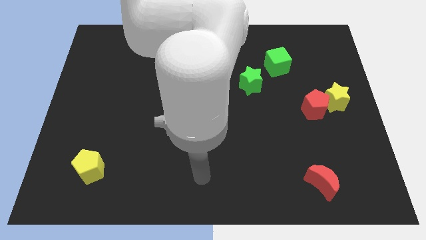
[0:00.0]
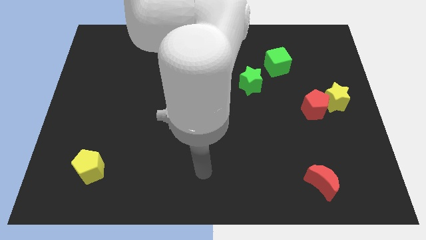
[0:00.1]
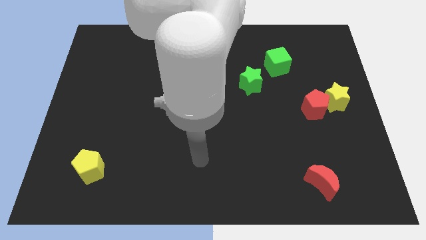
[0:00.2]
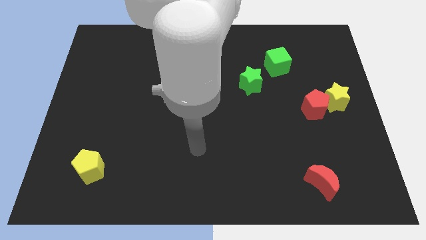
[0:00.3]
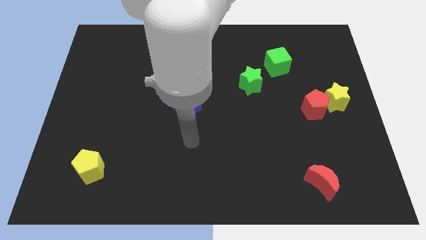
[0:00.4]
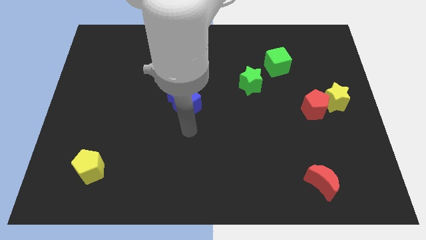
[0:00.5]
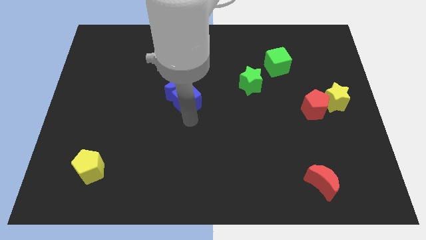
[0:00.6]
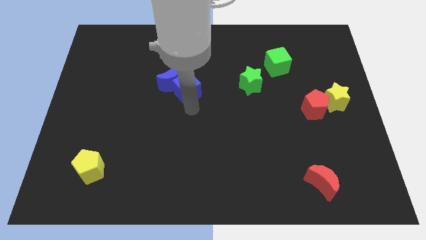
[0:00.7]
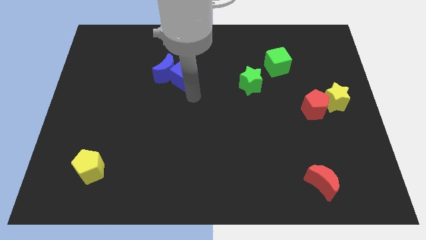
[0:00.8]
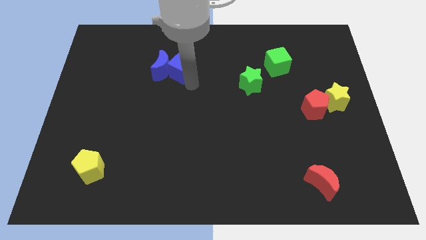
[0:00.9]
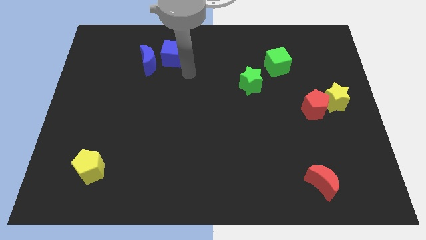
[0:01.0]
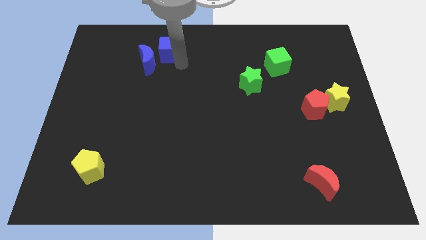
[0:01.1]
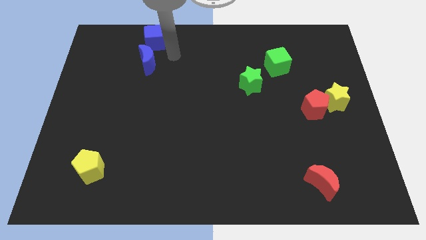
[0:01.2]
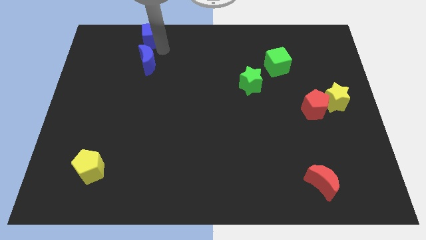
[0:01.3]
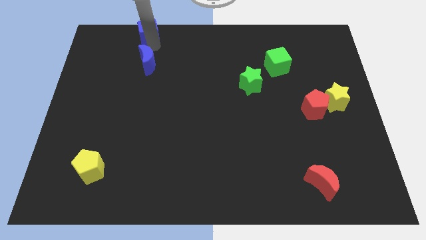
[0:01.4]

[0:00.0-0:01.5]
pull the blue moon apart from the blue cube

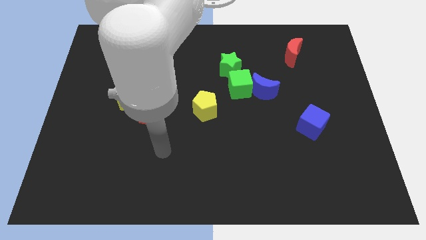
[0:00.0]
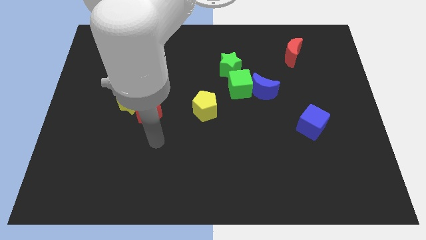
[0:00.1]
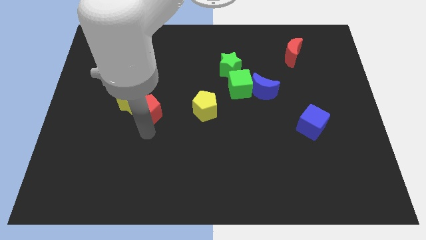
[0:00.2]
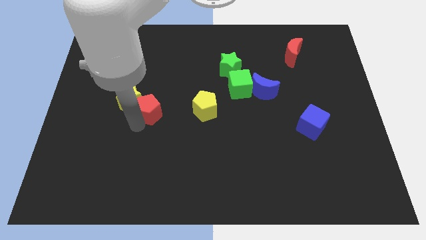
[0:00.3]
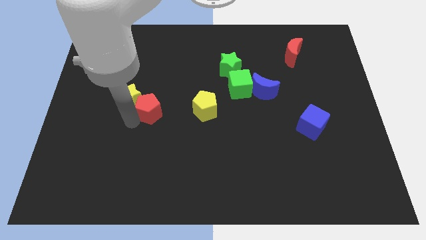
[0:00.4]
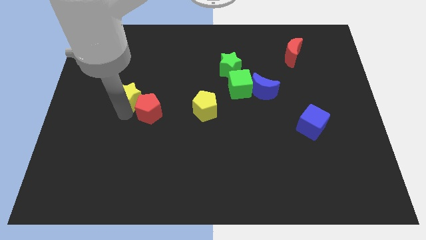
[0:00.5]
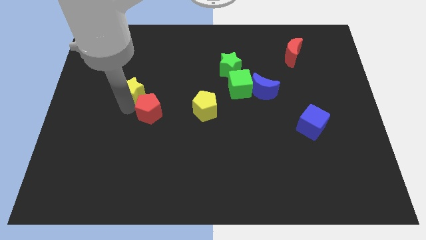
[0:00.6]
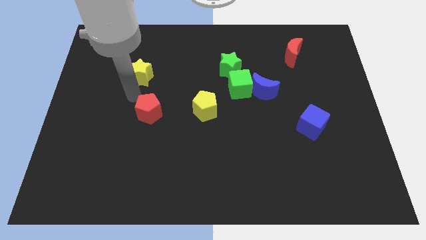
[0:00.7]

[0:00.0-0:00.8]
pull the red pentagon apart from the yellow star

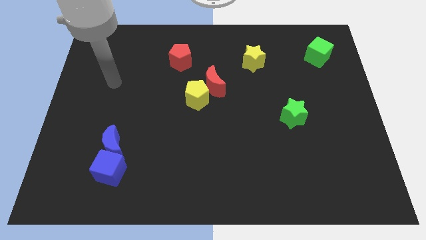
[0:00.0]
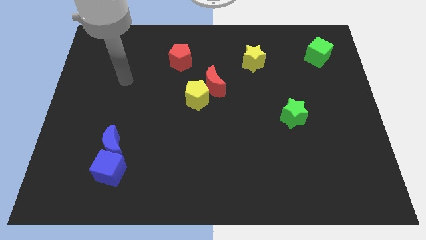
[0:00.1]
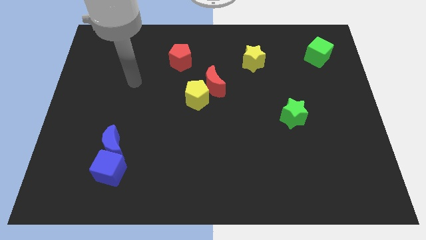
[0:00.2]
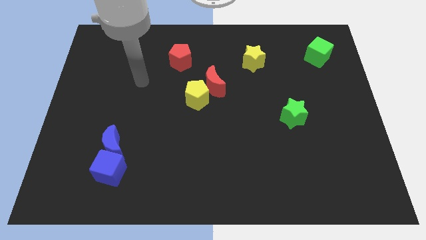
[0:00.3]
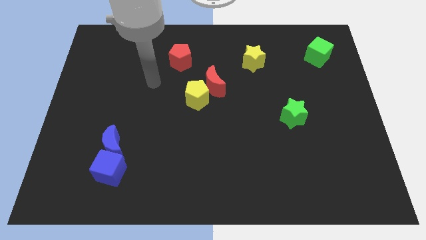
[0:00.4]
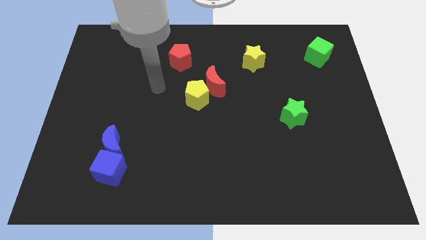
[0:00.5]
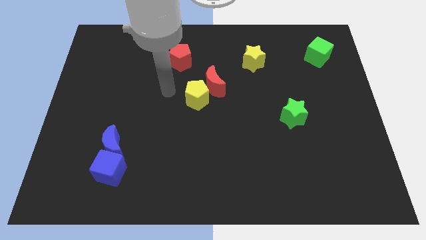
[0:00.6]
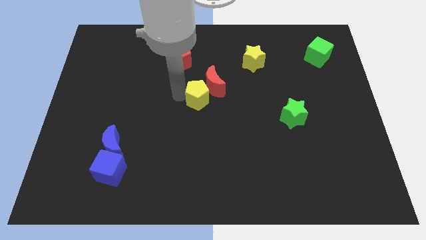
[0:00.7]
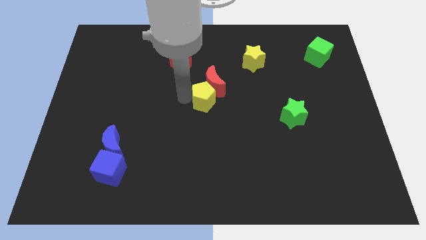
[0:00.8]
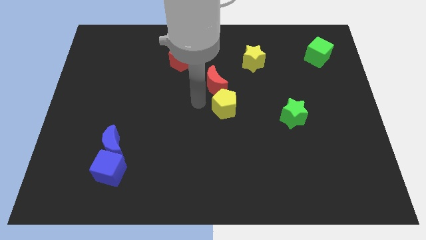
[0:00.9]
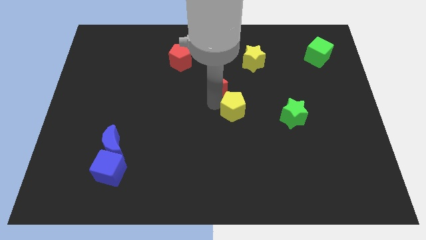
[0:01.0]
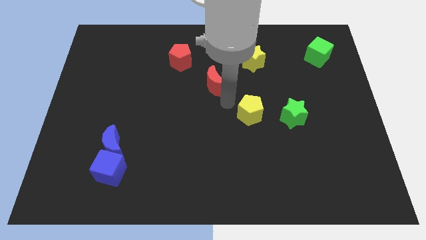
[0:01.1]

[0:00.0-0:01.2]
move the red moon away from the yellow pentagon

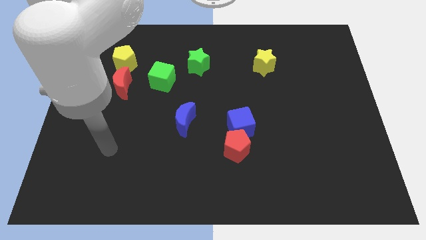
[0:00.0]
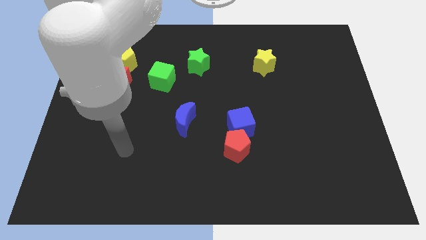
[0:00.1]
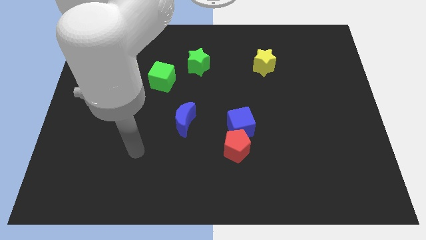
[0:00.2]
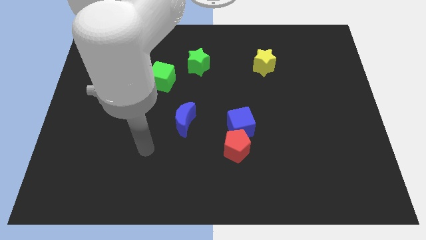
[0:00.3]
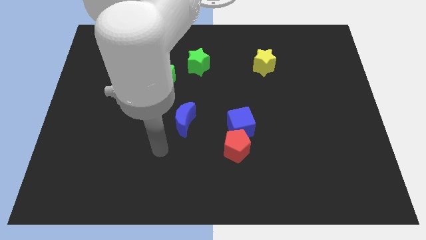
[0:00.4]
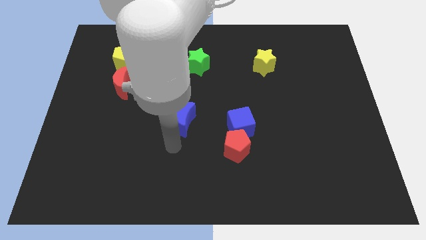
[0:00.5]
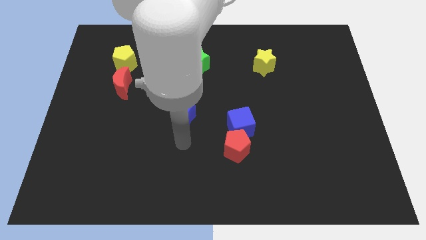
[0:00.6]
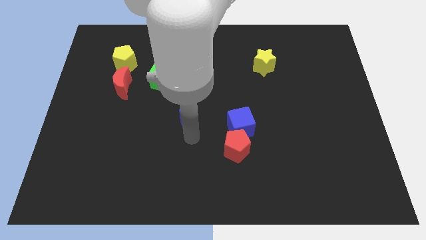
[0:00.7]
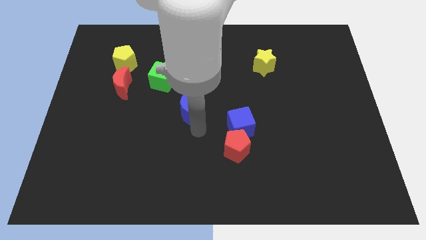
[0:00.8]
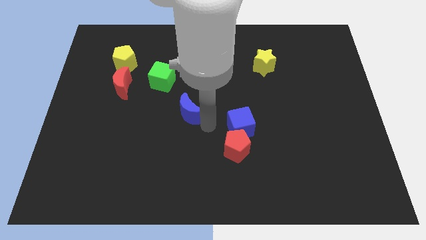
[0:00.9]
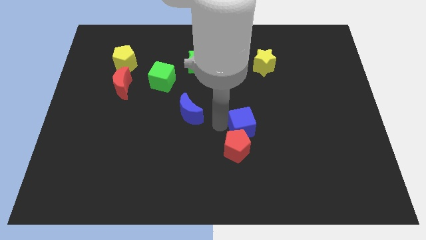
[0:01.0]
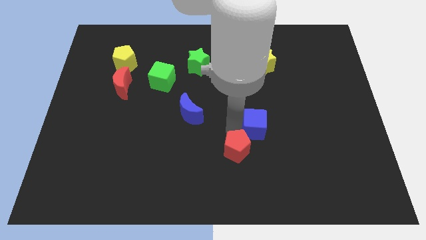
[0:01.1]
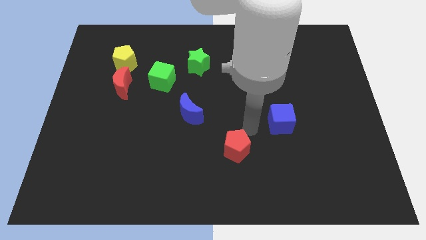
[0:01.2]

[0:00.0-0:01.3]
pull the red pentagon apart from the blue cube

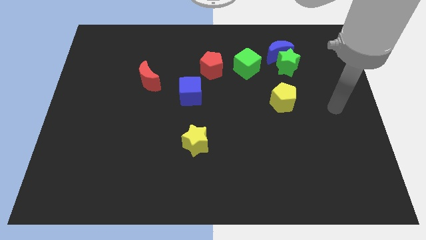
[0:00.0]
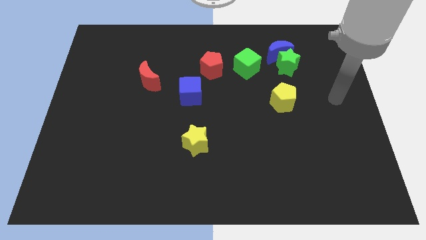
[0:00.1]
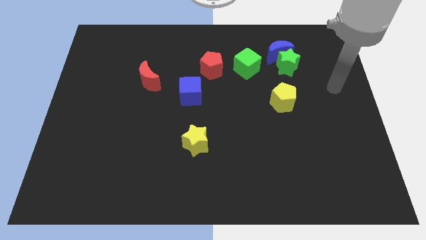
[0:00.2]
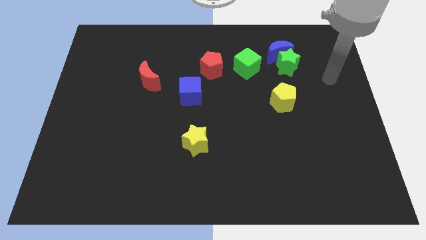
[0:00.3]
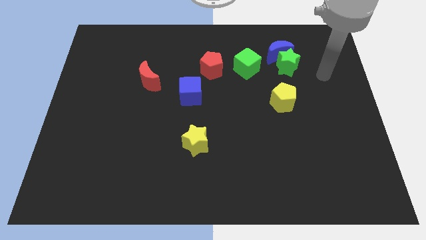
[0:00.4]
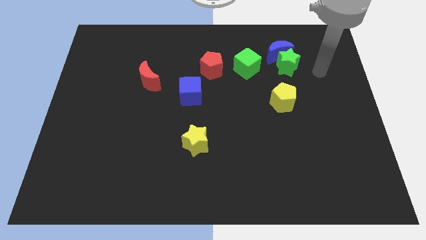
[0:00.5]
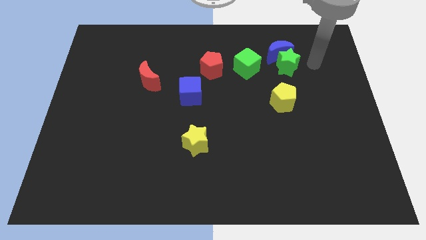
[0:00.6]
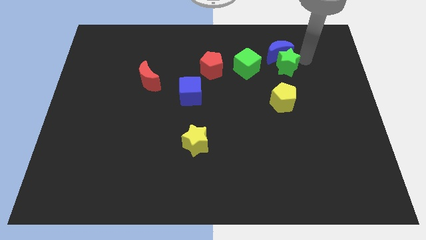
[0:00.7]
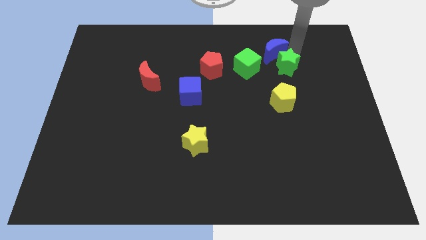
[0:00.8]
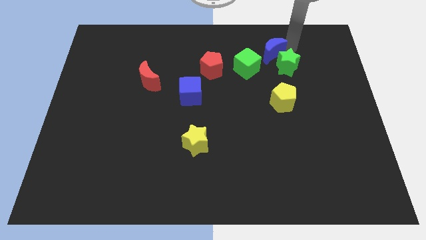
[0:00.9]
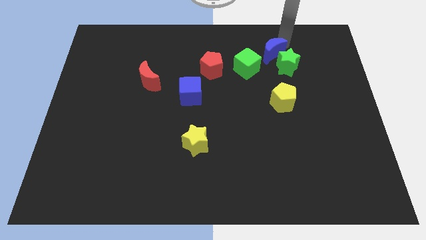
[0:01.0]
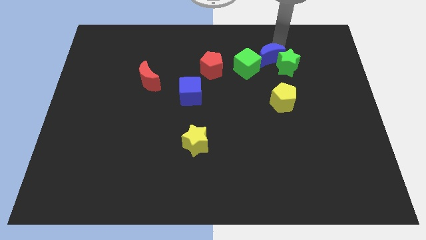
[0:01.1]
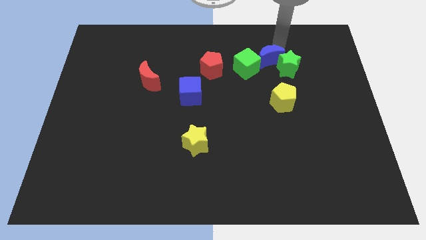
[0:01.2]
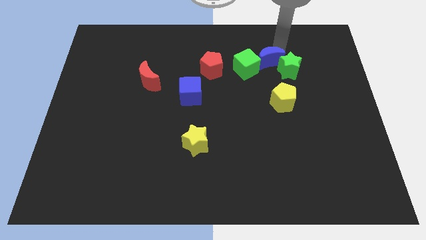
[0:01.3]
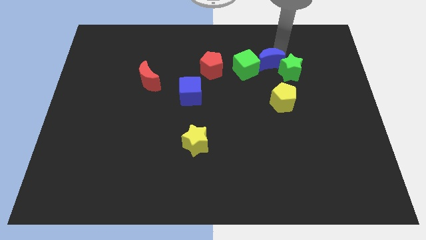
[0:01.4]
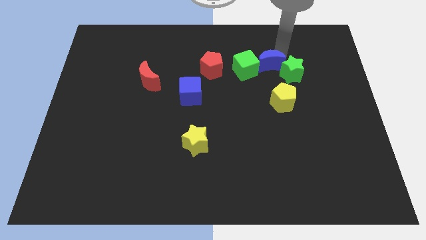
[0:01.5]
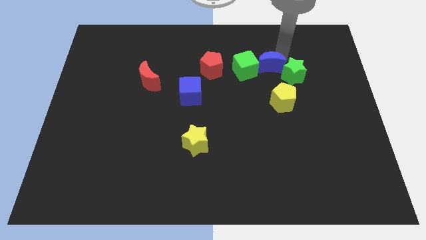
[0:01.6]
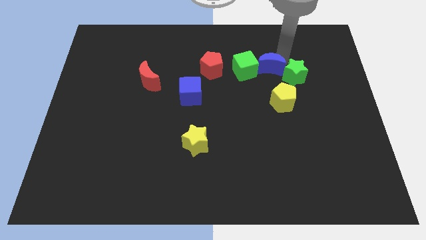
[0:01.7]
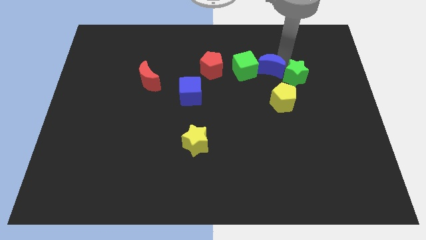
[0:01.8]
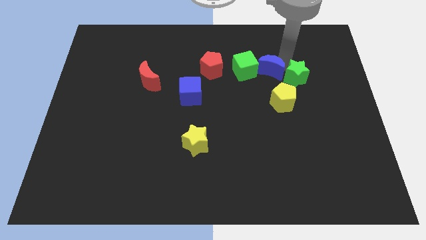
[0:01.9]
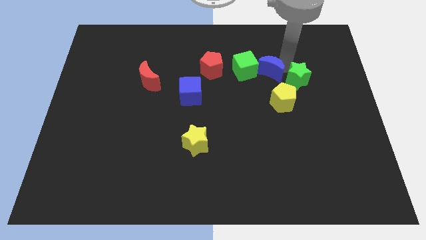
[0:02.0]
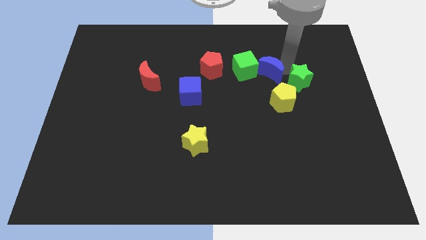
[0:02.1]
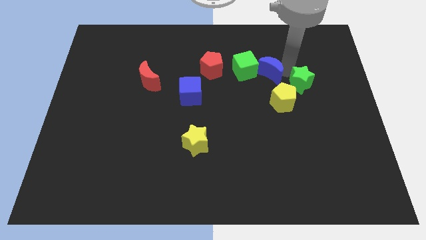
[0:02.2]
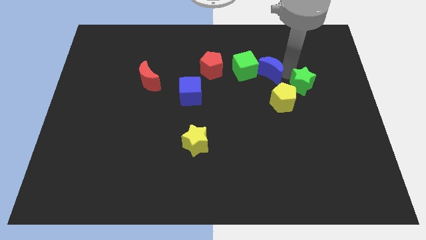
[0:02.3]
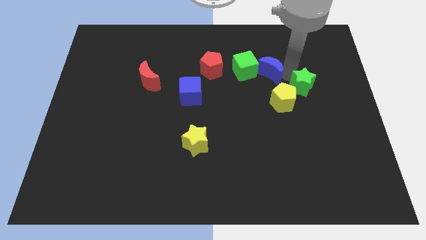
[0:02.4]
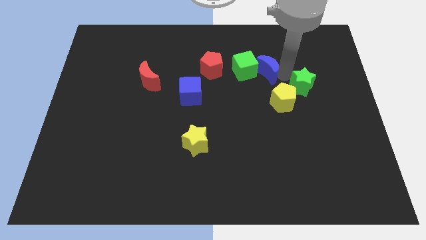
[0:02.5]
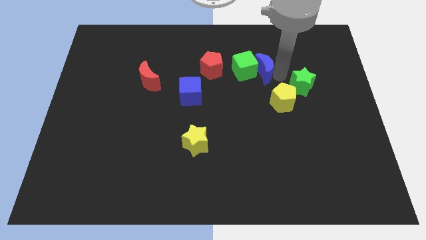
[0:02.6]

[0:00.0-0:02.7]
separate the green star from the blue moon

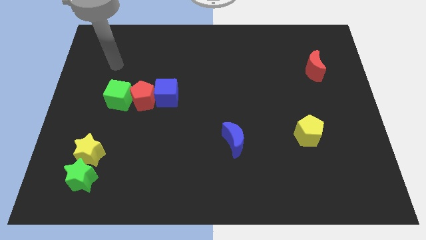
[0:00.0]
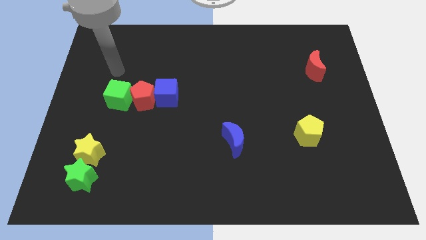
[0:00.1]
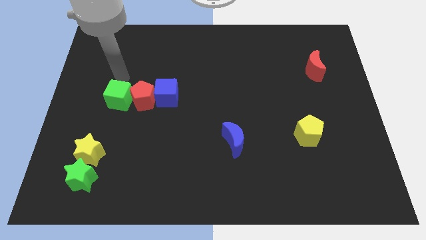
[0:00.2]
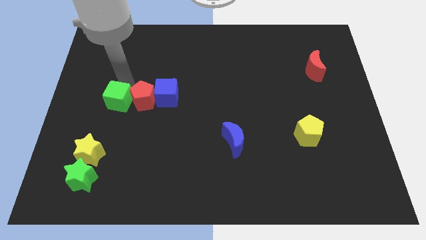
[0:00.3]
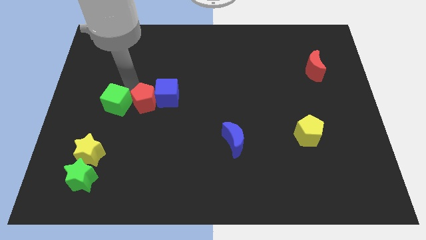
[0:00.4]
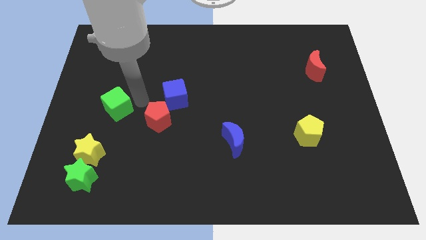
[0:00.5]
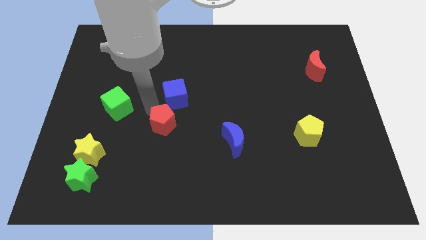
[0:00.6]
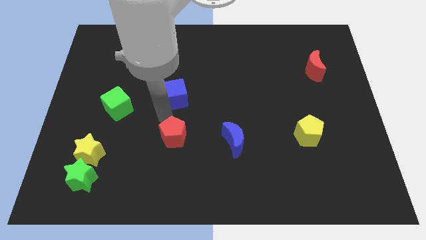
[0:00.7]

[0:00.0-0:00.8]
pull the blue cube apart from the red pentagon

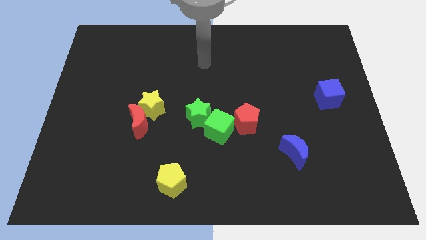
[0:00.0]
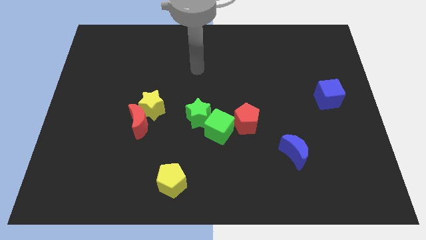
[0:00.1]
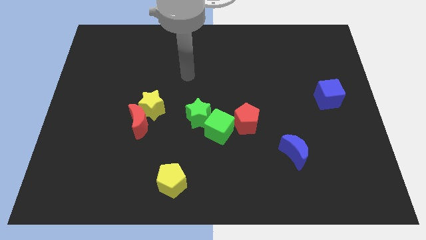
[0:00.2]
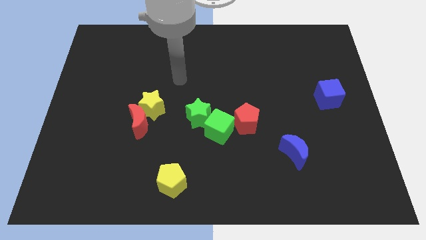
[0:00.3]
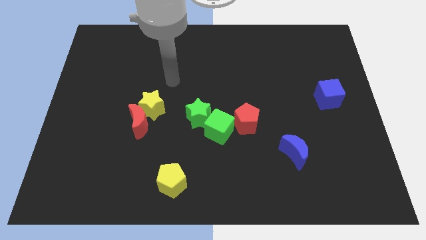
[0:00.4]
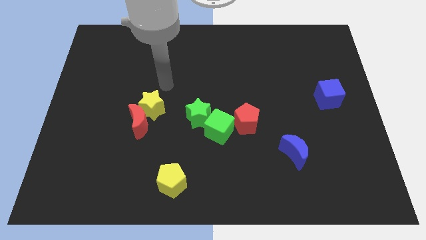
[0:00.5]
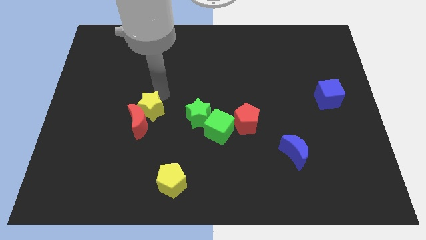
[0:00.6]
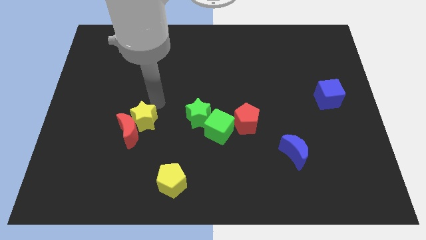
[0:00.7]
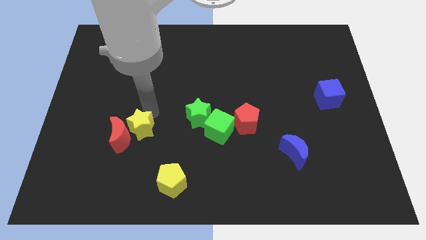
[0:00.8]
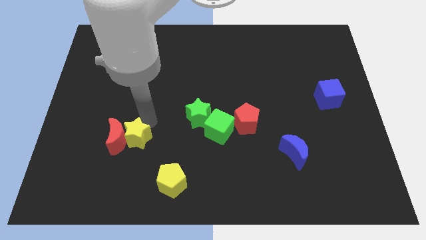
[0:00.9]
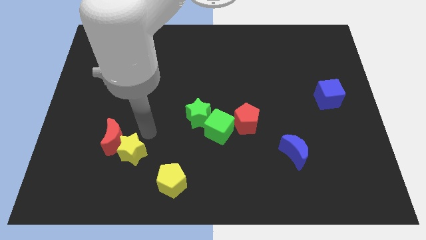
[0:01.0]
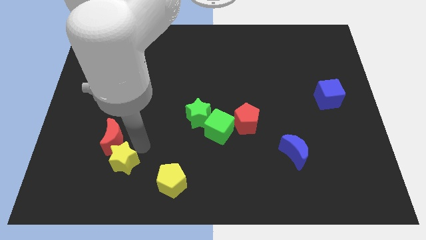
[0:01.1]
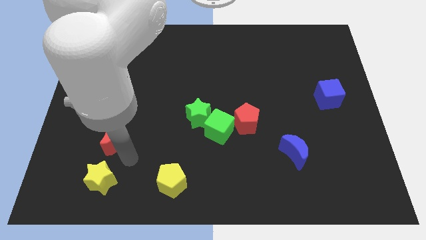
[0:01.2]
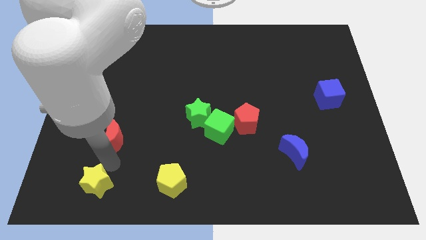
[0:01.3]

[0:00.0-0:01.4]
separate the red moon from the yellow star
